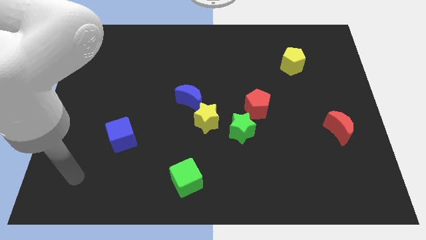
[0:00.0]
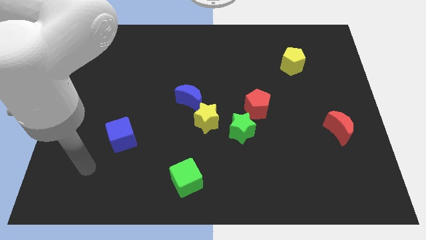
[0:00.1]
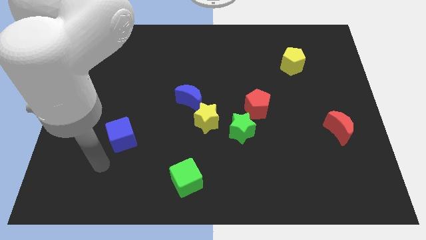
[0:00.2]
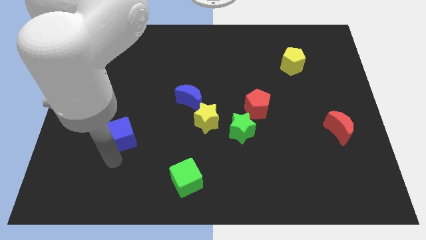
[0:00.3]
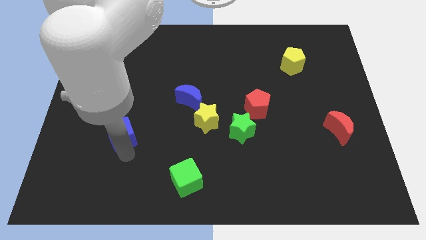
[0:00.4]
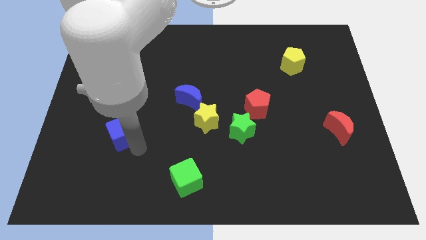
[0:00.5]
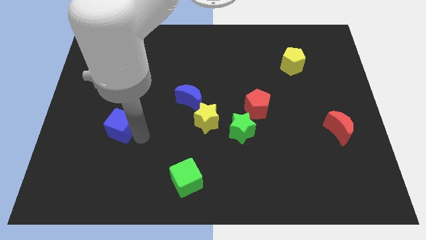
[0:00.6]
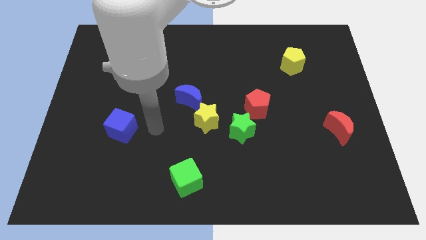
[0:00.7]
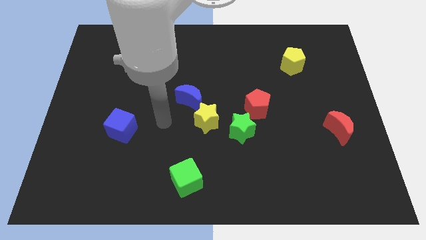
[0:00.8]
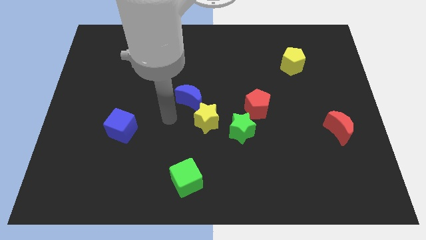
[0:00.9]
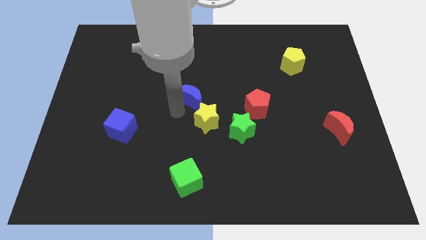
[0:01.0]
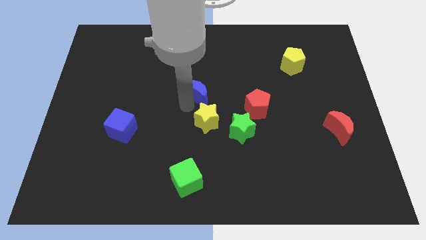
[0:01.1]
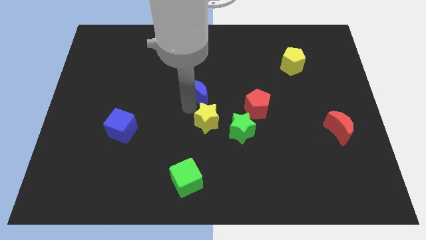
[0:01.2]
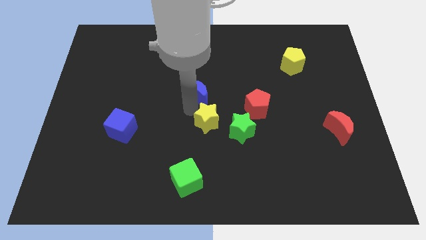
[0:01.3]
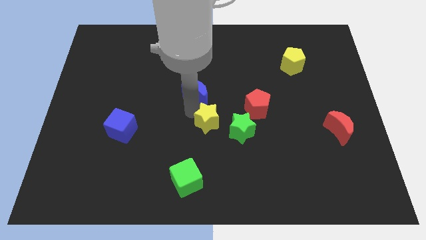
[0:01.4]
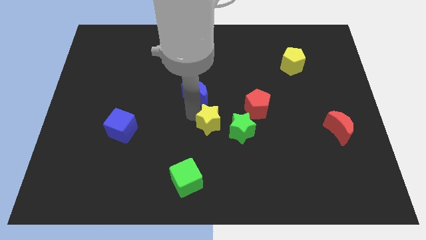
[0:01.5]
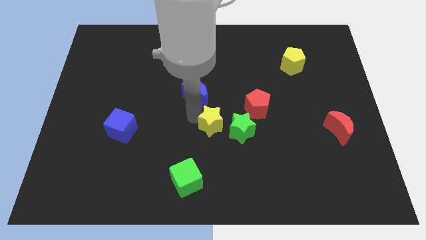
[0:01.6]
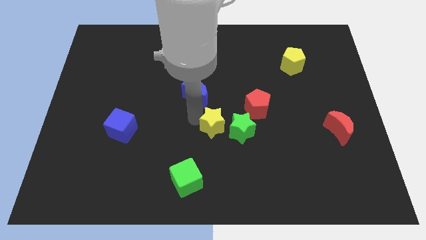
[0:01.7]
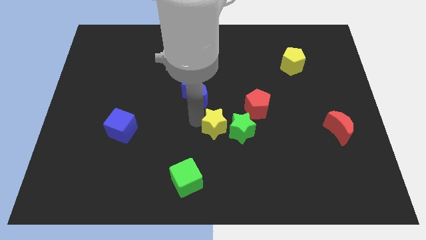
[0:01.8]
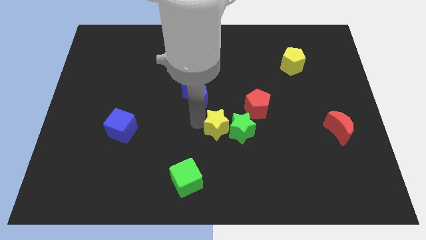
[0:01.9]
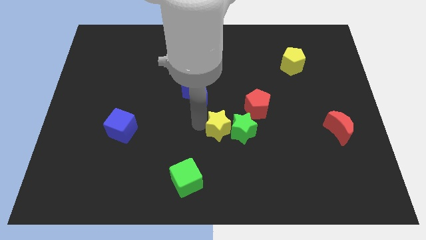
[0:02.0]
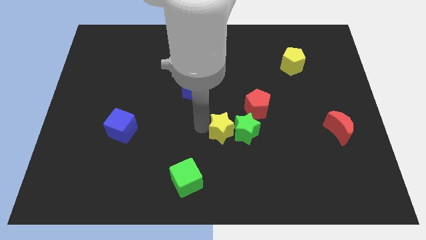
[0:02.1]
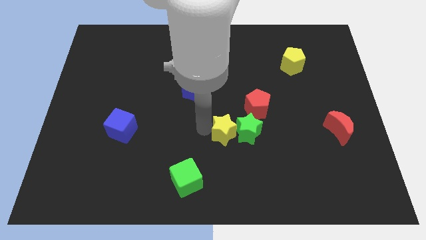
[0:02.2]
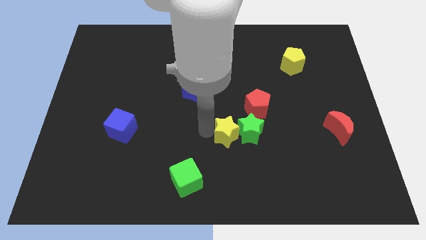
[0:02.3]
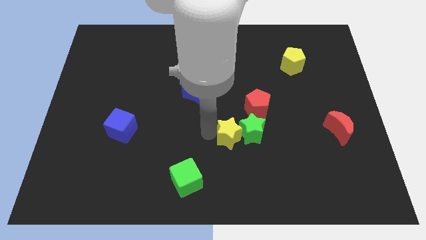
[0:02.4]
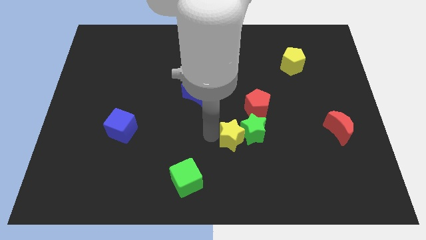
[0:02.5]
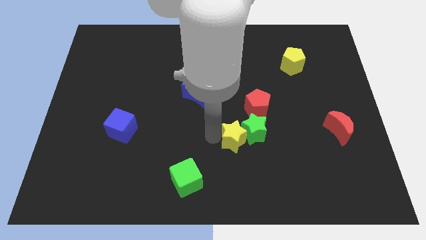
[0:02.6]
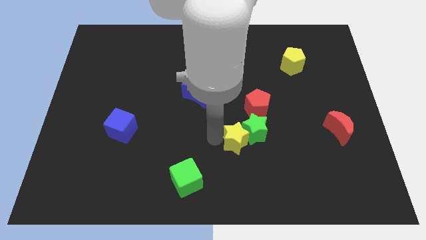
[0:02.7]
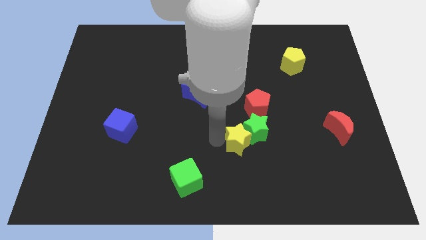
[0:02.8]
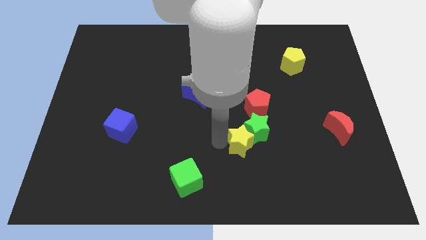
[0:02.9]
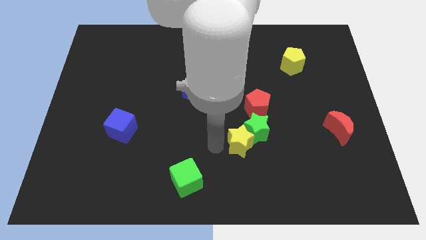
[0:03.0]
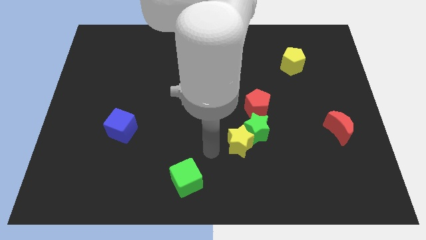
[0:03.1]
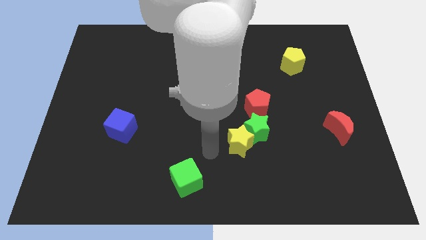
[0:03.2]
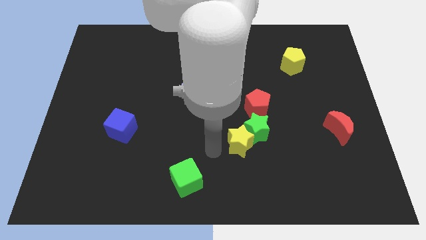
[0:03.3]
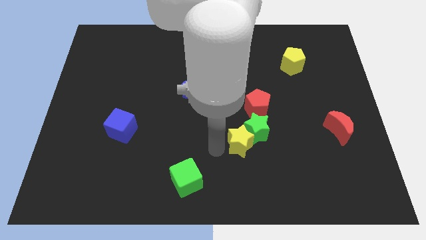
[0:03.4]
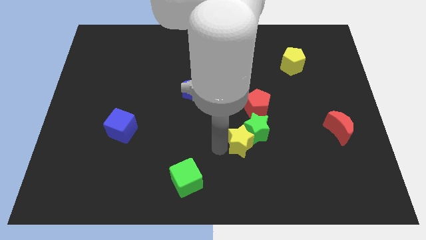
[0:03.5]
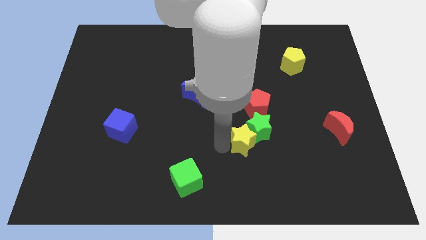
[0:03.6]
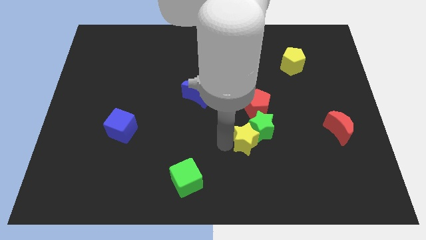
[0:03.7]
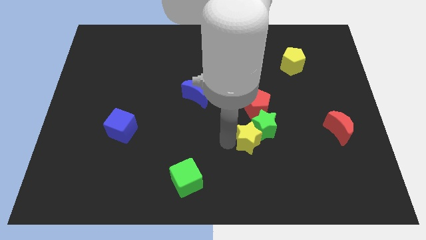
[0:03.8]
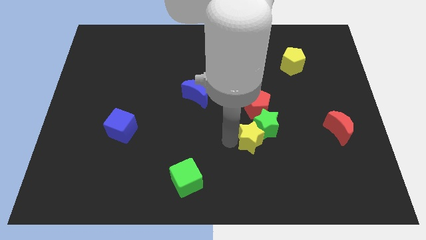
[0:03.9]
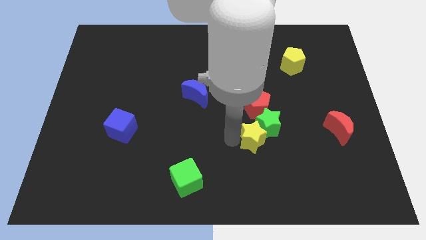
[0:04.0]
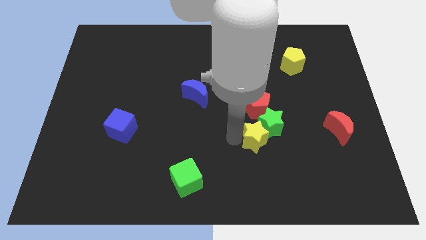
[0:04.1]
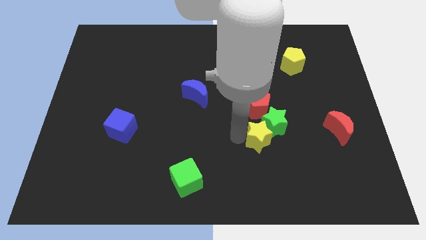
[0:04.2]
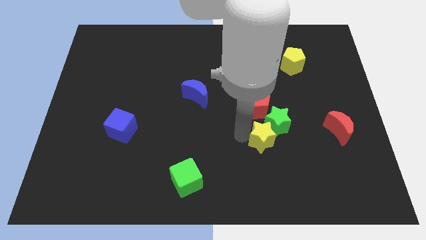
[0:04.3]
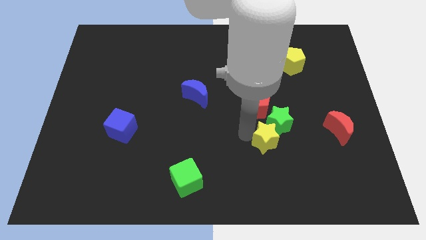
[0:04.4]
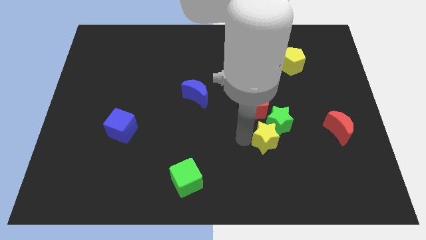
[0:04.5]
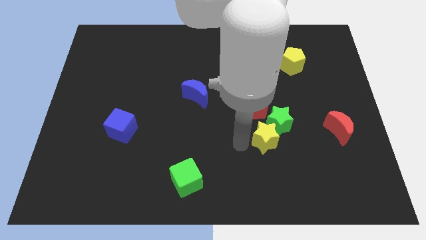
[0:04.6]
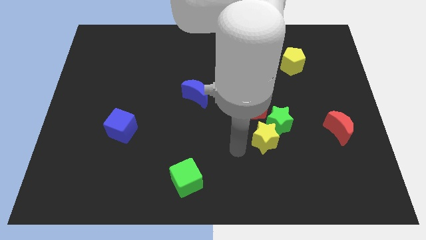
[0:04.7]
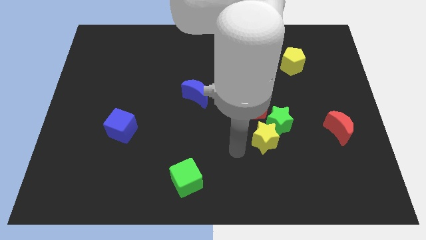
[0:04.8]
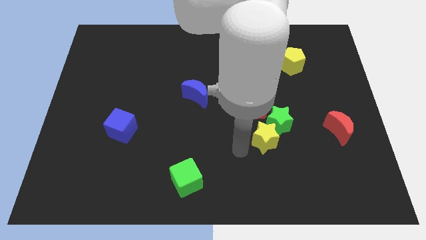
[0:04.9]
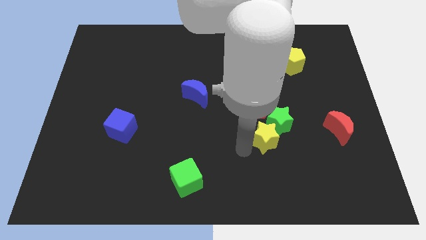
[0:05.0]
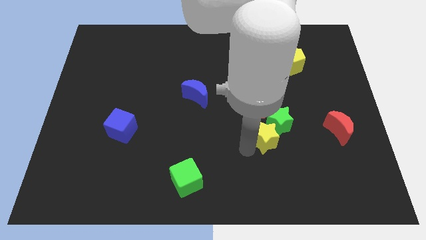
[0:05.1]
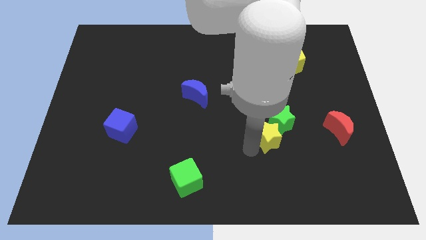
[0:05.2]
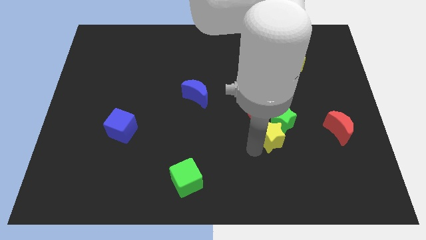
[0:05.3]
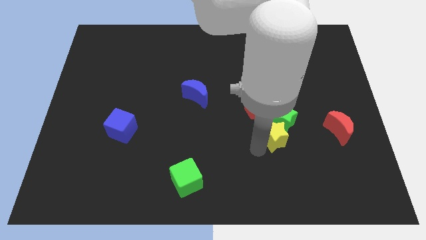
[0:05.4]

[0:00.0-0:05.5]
push the yellow star just left of the red moon

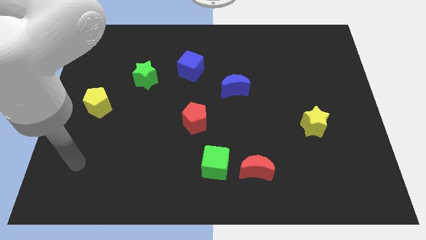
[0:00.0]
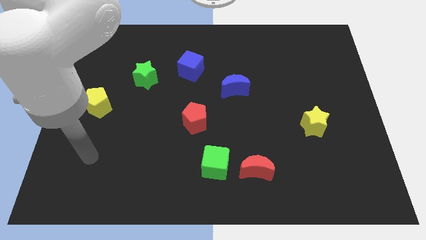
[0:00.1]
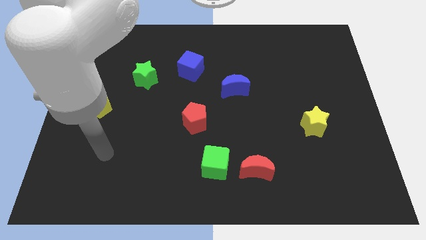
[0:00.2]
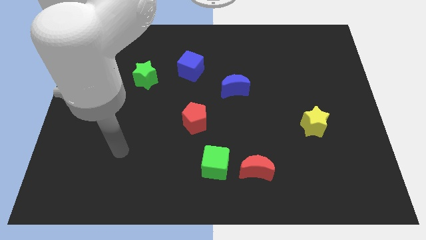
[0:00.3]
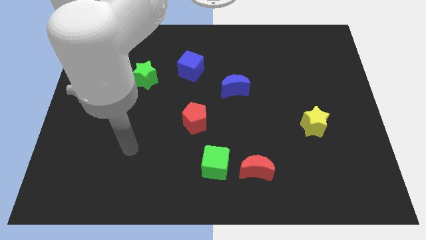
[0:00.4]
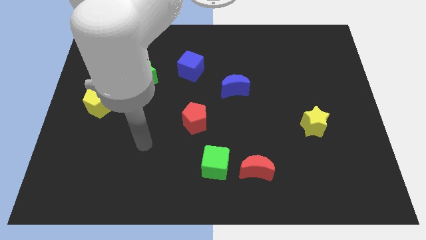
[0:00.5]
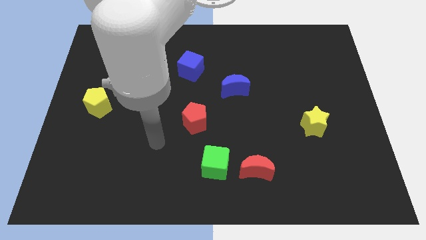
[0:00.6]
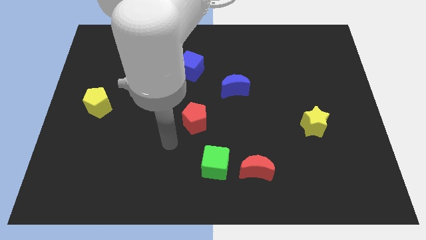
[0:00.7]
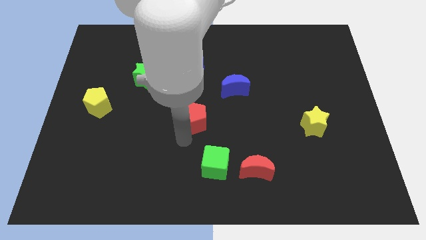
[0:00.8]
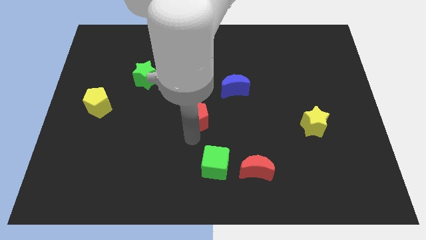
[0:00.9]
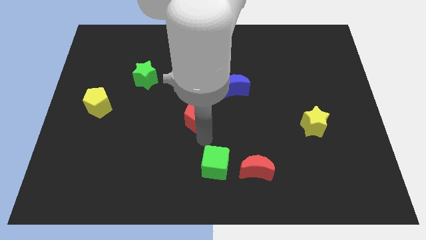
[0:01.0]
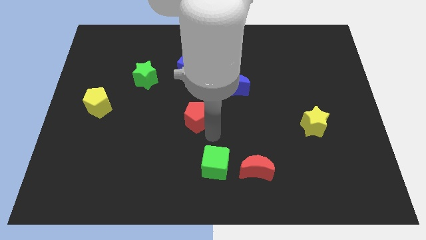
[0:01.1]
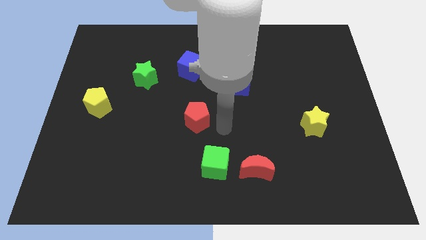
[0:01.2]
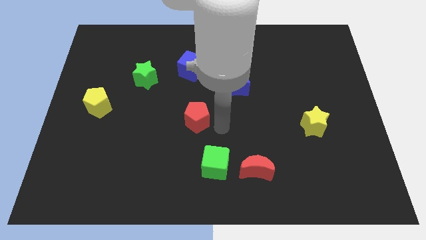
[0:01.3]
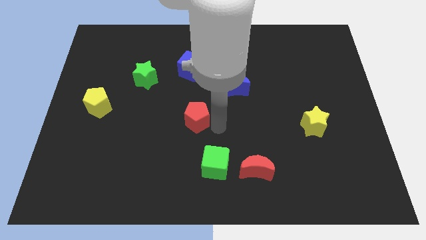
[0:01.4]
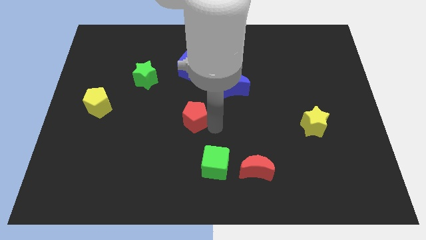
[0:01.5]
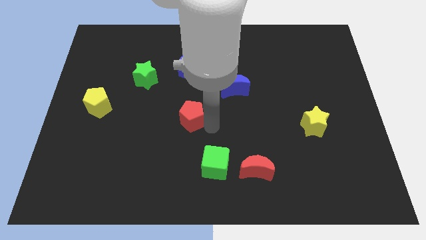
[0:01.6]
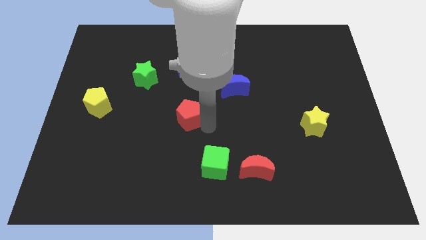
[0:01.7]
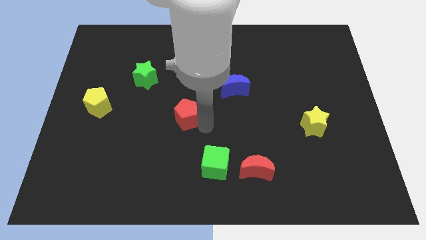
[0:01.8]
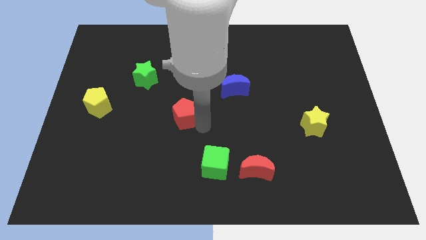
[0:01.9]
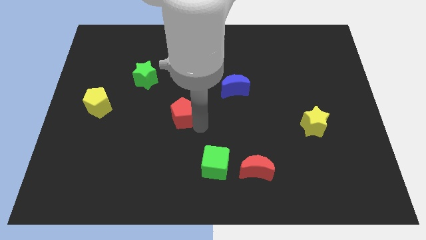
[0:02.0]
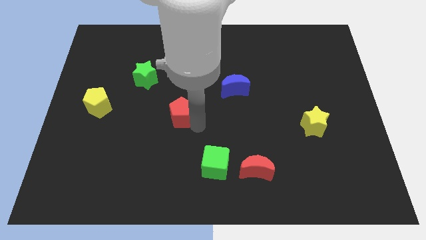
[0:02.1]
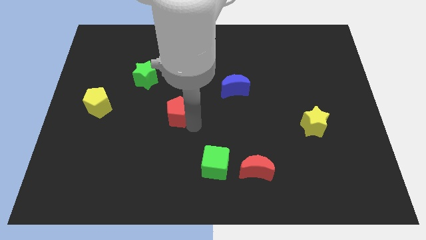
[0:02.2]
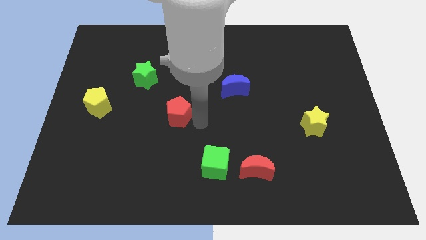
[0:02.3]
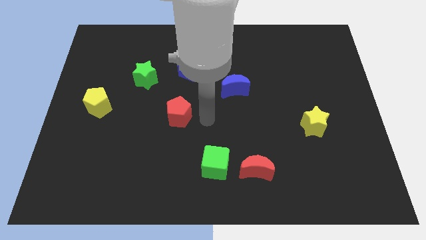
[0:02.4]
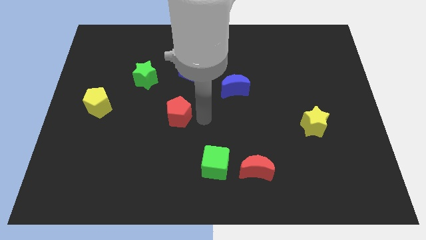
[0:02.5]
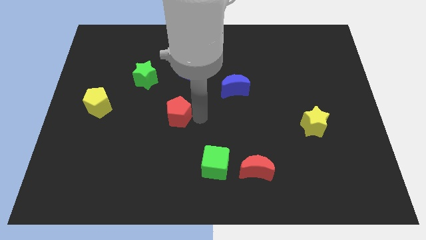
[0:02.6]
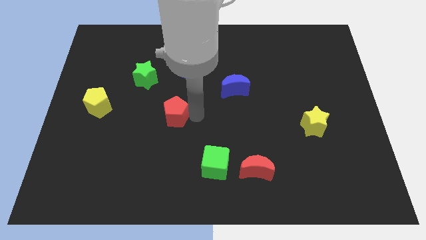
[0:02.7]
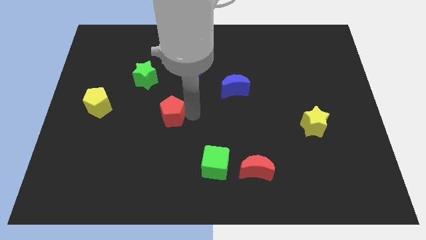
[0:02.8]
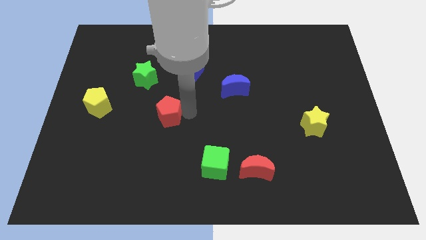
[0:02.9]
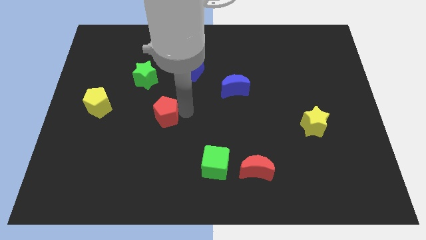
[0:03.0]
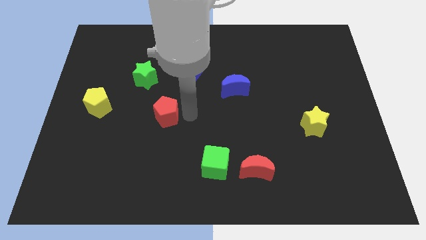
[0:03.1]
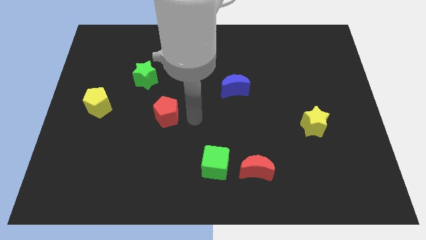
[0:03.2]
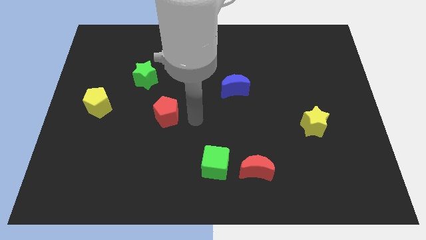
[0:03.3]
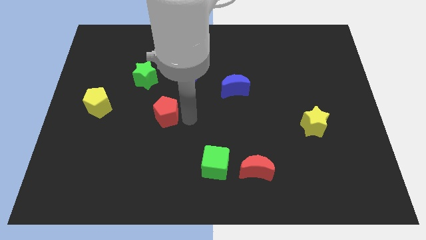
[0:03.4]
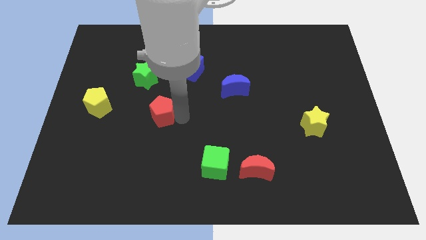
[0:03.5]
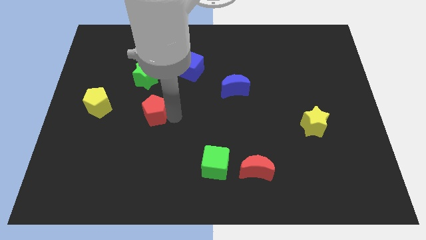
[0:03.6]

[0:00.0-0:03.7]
put the red pentagon below the green star
